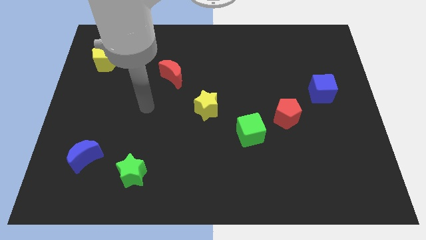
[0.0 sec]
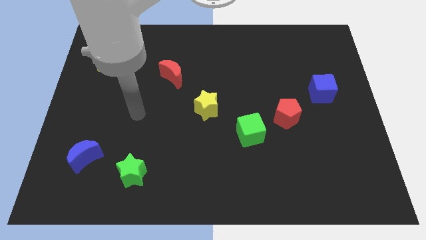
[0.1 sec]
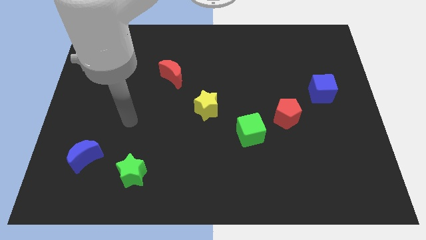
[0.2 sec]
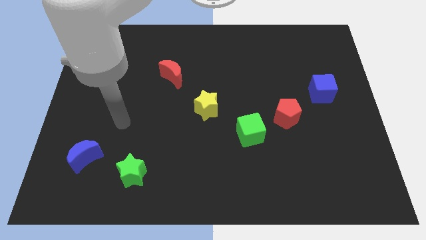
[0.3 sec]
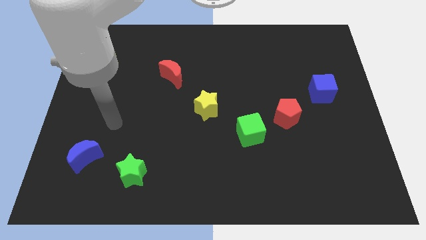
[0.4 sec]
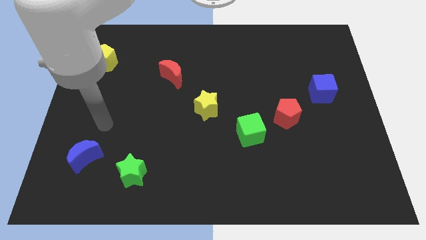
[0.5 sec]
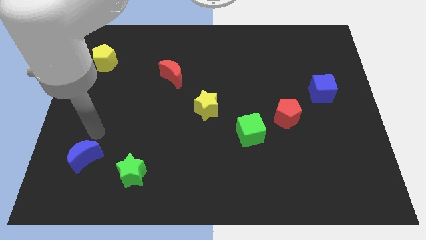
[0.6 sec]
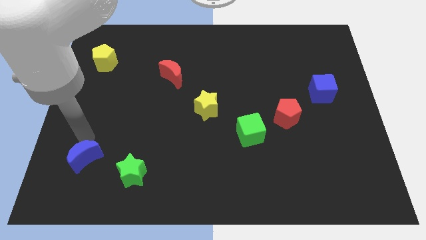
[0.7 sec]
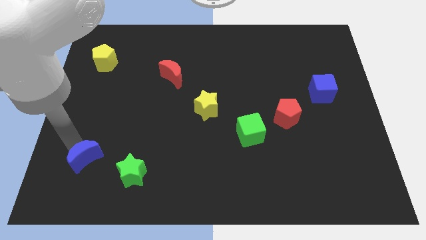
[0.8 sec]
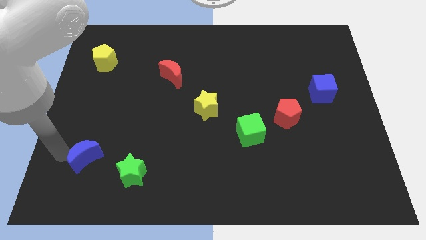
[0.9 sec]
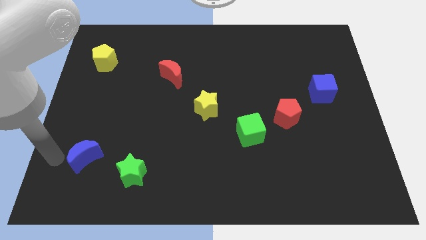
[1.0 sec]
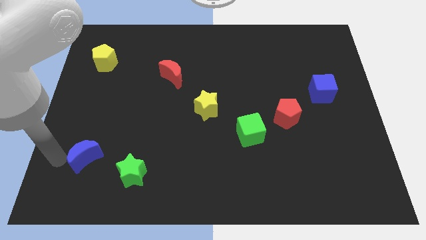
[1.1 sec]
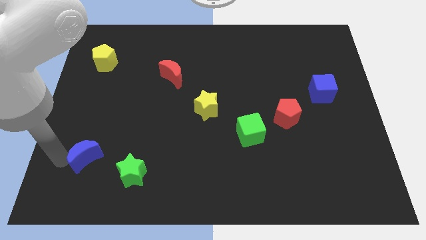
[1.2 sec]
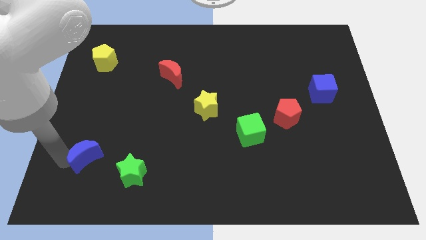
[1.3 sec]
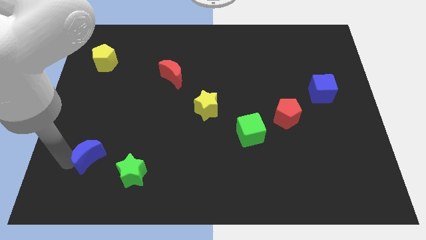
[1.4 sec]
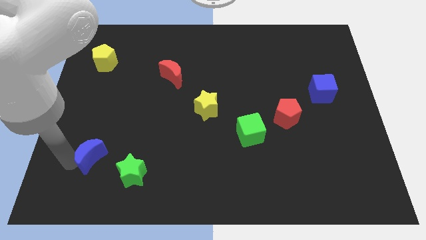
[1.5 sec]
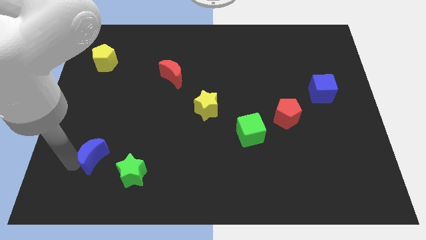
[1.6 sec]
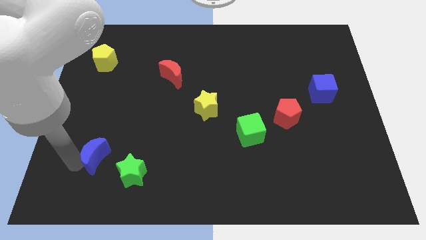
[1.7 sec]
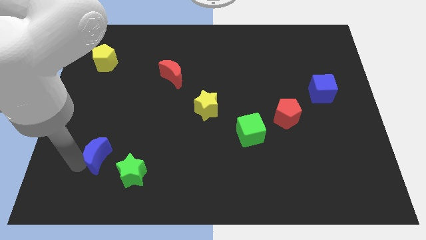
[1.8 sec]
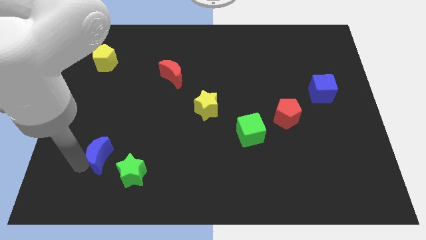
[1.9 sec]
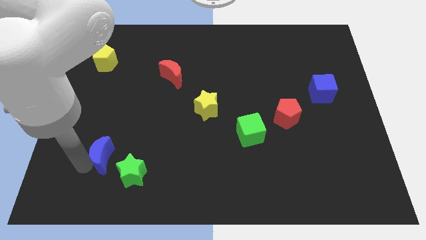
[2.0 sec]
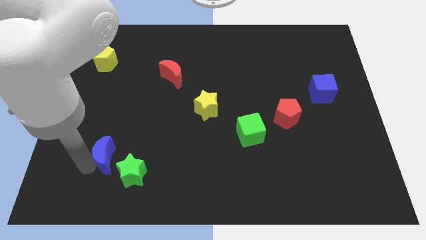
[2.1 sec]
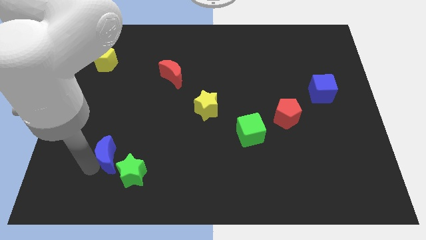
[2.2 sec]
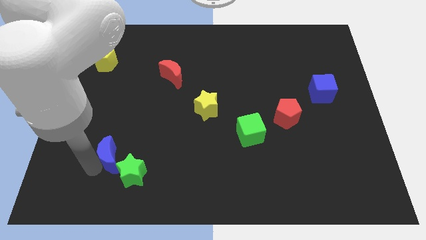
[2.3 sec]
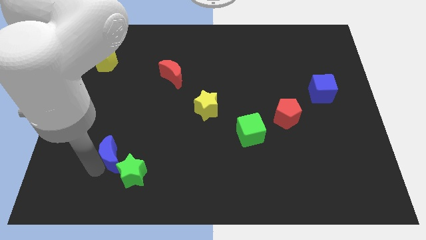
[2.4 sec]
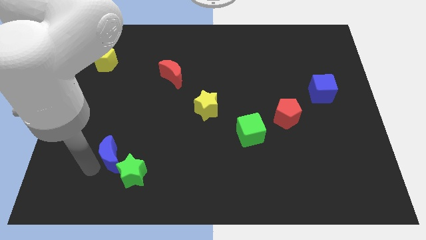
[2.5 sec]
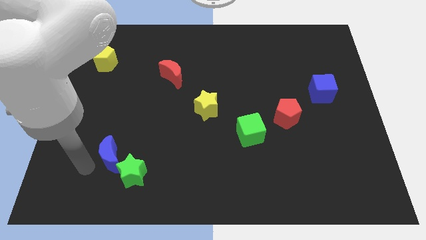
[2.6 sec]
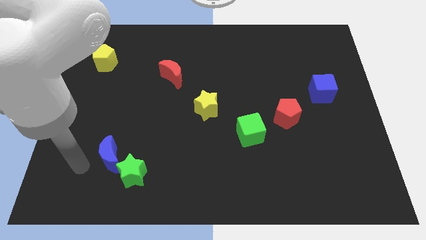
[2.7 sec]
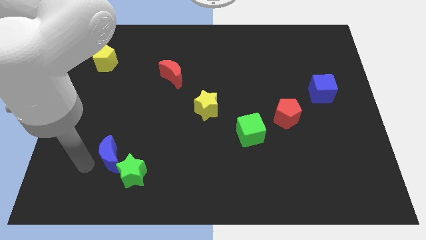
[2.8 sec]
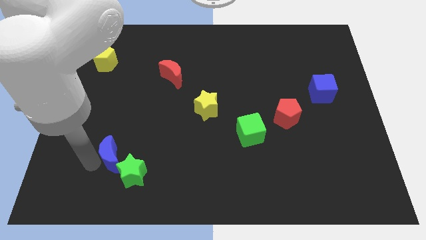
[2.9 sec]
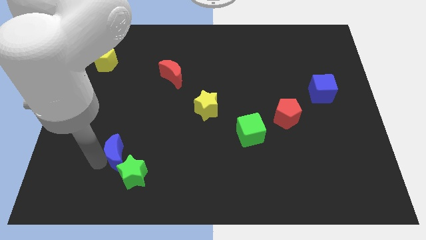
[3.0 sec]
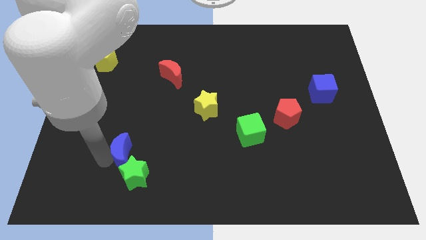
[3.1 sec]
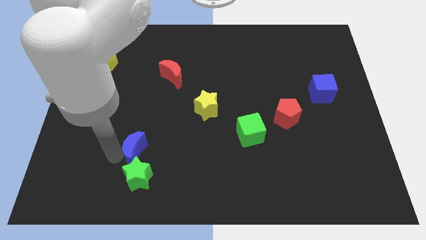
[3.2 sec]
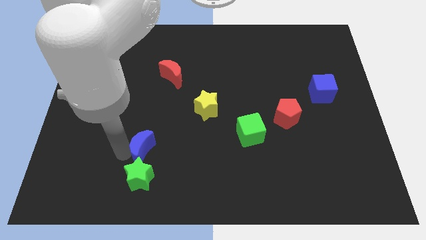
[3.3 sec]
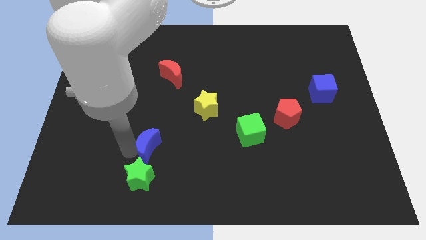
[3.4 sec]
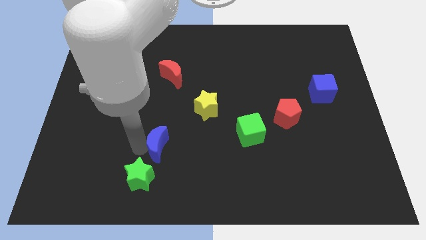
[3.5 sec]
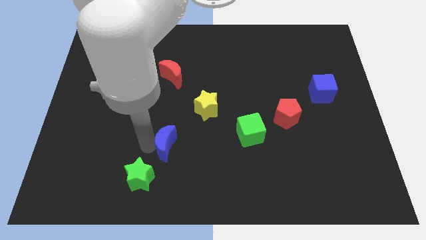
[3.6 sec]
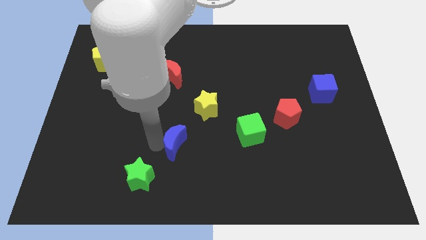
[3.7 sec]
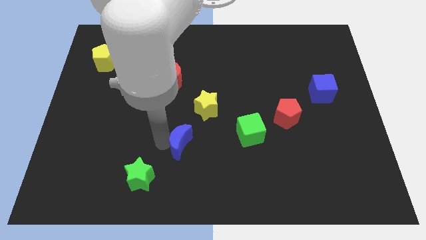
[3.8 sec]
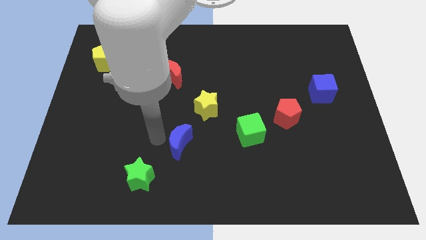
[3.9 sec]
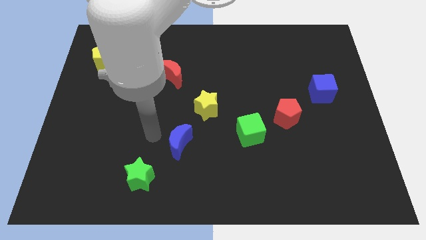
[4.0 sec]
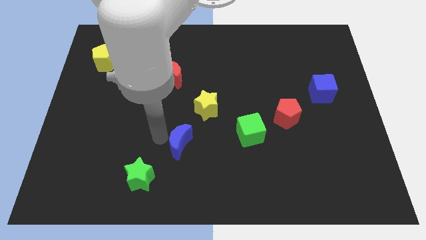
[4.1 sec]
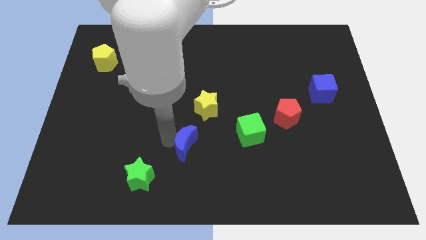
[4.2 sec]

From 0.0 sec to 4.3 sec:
push the blue moon to the right

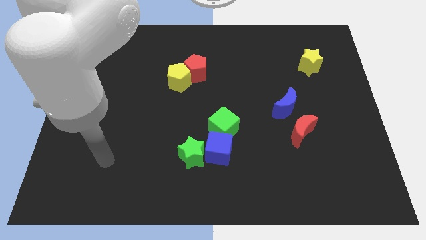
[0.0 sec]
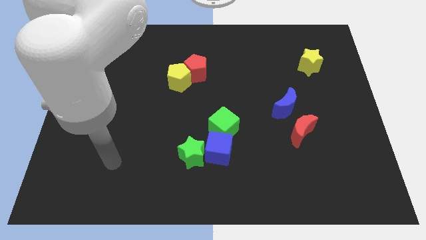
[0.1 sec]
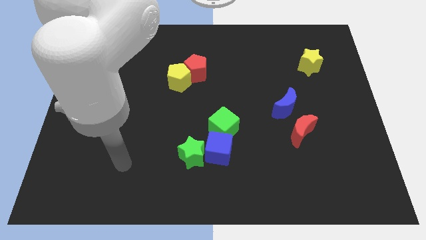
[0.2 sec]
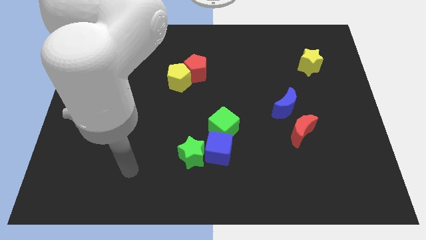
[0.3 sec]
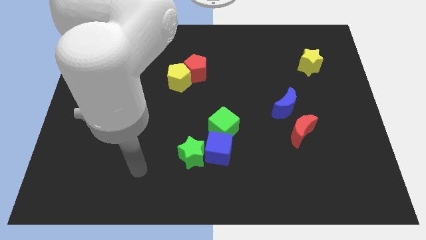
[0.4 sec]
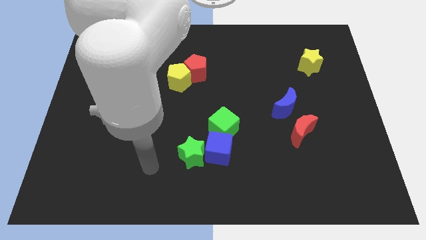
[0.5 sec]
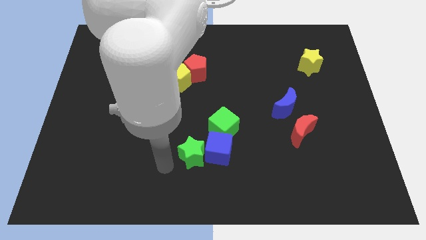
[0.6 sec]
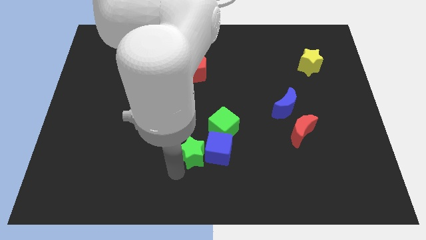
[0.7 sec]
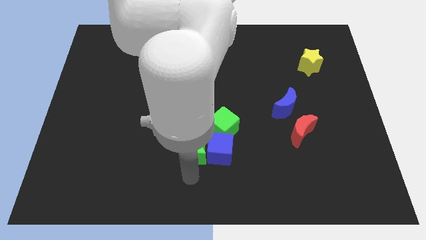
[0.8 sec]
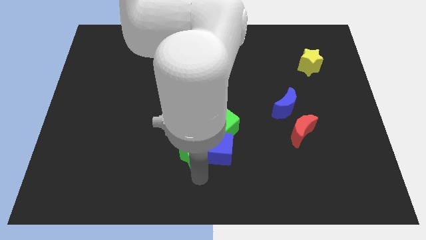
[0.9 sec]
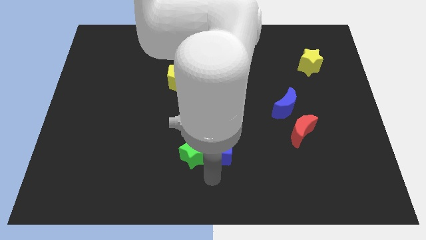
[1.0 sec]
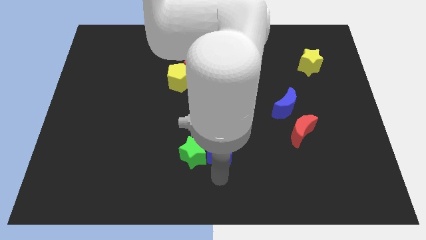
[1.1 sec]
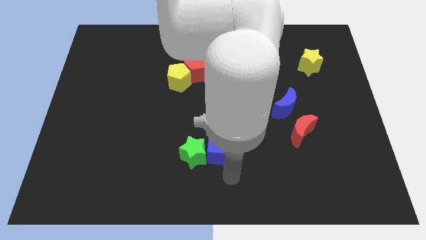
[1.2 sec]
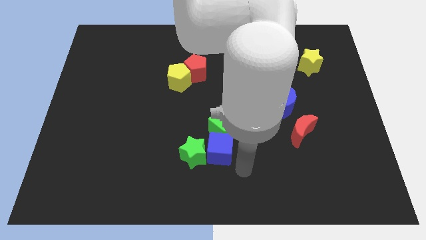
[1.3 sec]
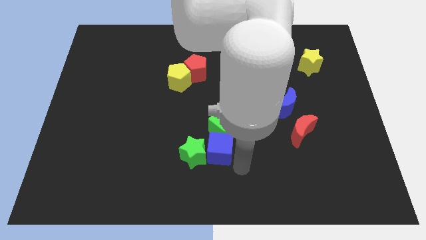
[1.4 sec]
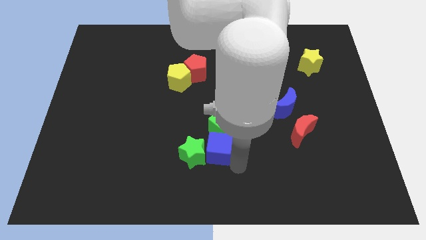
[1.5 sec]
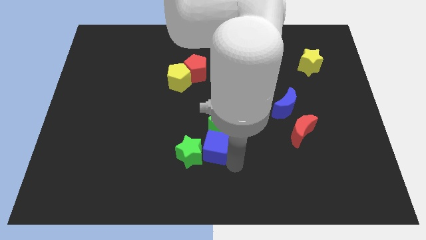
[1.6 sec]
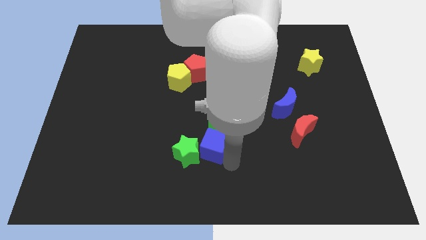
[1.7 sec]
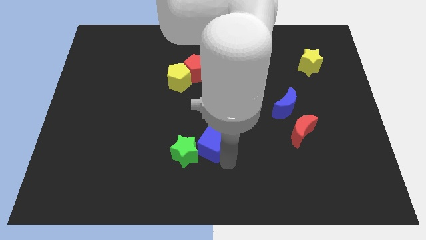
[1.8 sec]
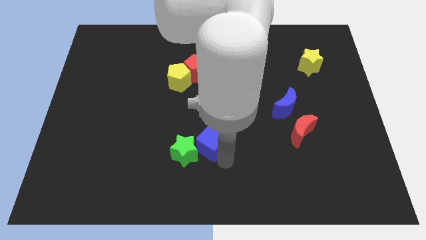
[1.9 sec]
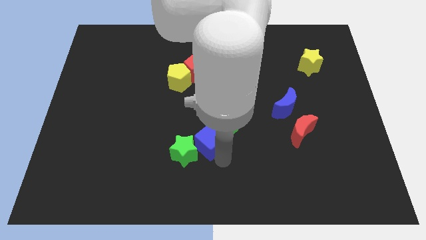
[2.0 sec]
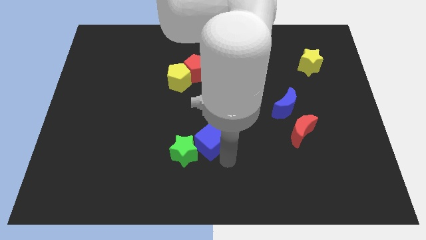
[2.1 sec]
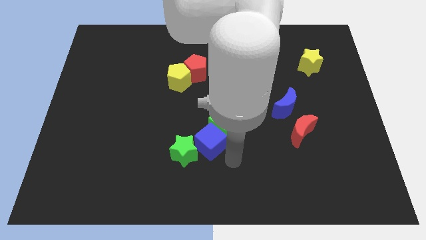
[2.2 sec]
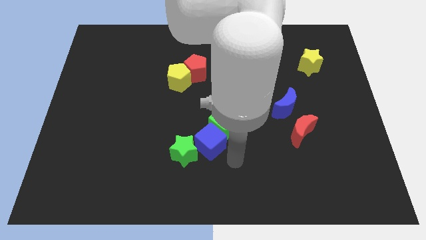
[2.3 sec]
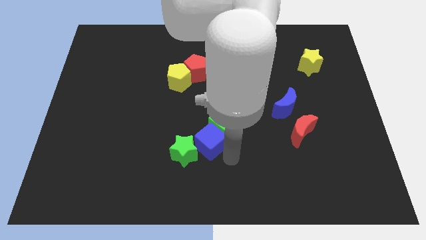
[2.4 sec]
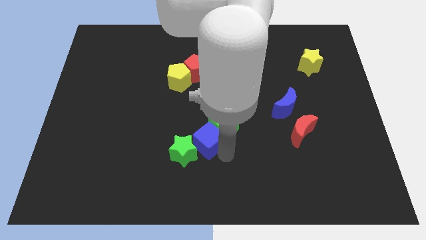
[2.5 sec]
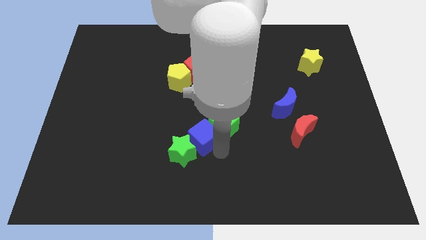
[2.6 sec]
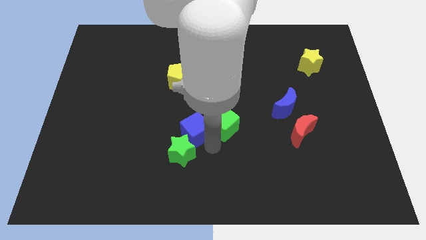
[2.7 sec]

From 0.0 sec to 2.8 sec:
push the blue cube diagonally up and to the left a bit

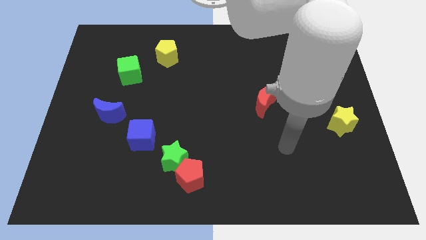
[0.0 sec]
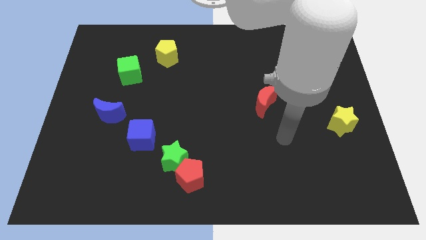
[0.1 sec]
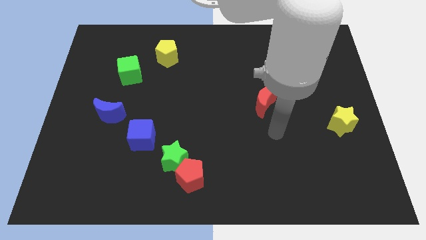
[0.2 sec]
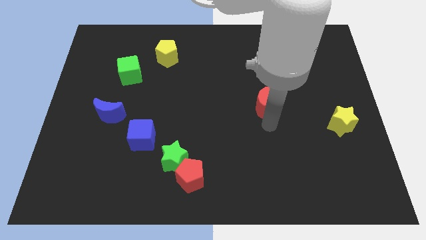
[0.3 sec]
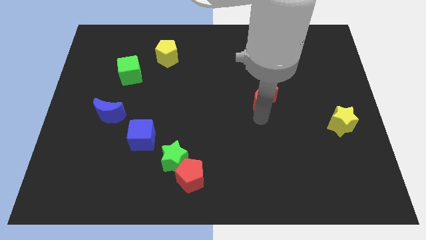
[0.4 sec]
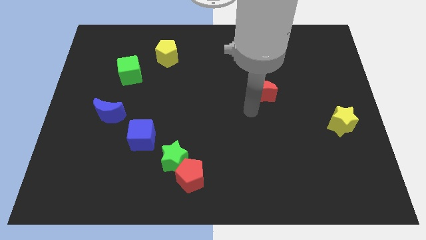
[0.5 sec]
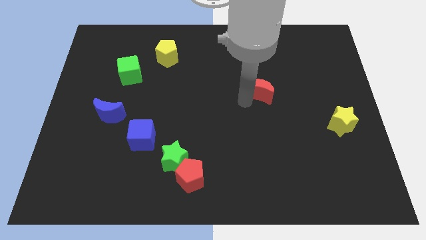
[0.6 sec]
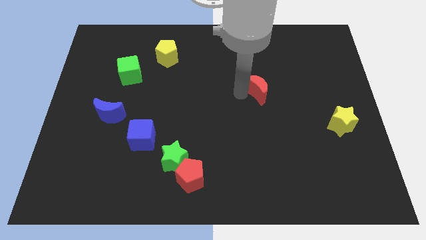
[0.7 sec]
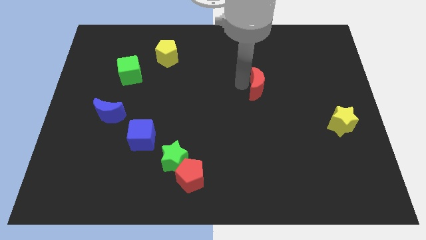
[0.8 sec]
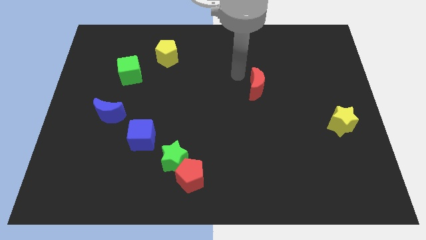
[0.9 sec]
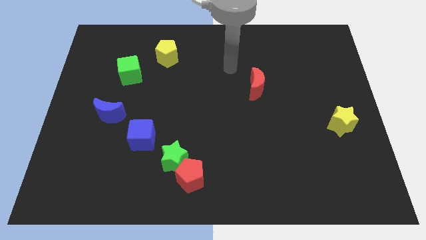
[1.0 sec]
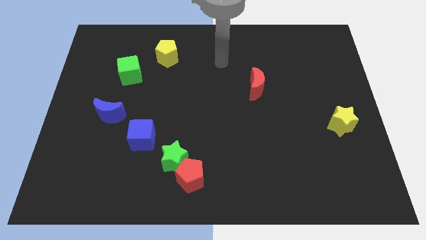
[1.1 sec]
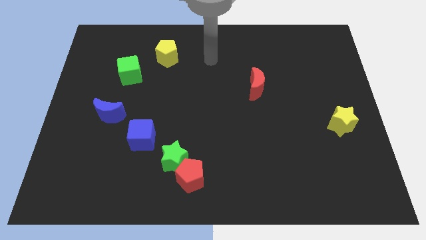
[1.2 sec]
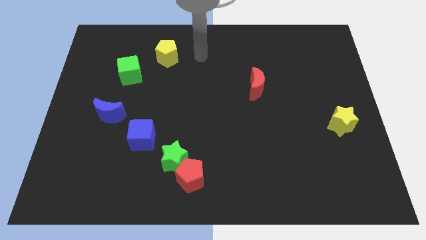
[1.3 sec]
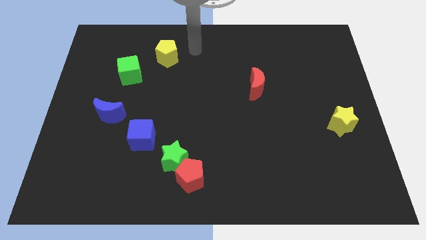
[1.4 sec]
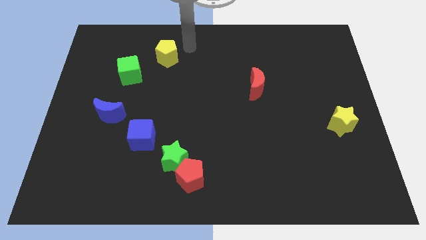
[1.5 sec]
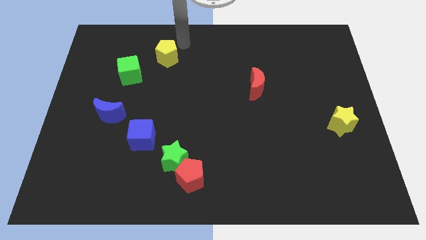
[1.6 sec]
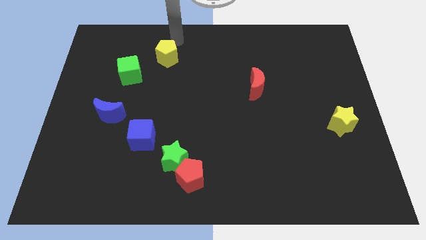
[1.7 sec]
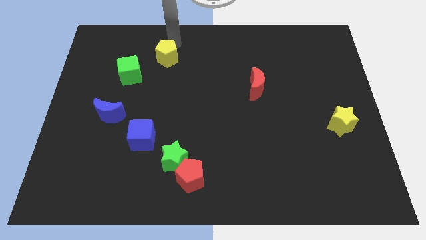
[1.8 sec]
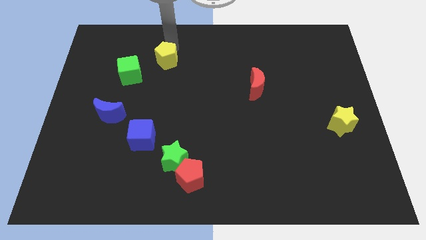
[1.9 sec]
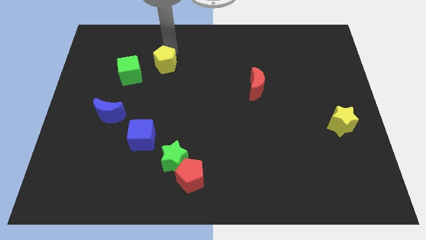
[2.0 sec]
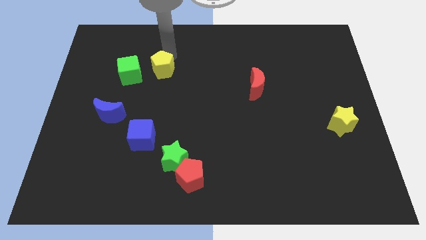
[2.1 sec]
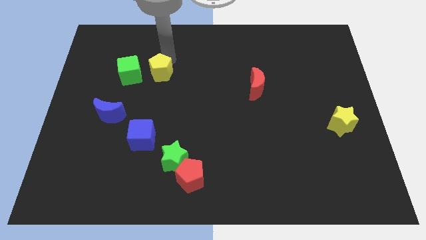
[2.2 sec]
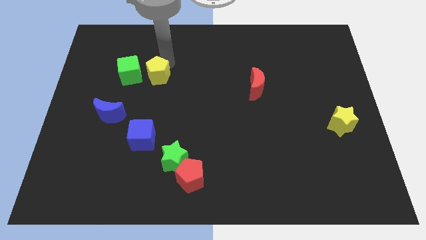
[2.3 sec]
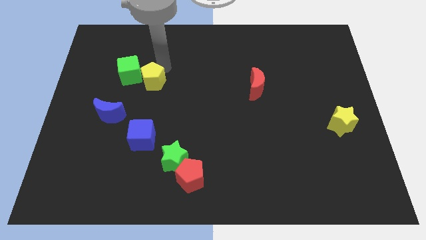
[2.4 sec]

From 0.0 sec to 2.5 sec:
push the yellow pentagon a bit down and to the left
